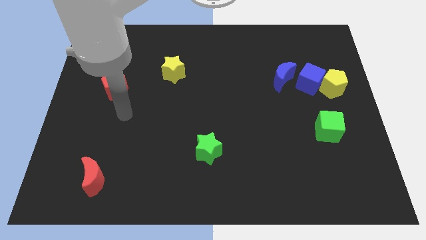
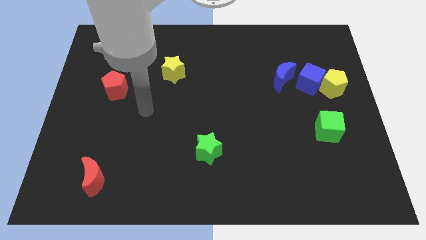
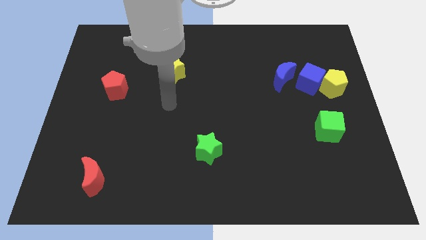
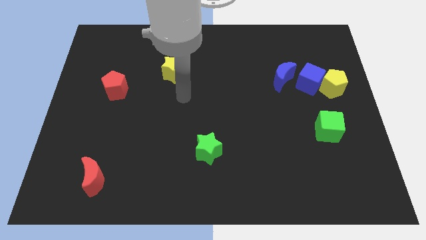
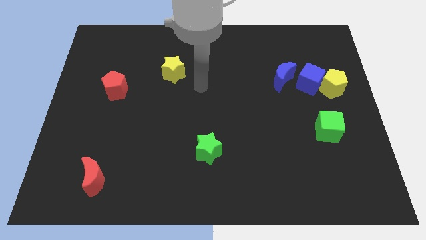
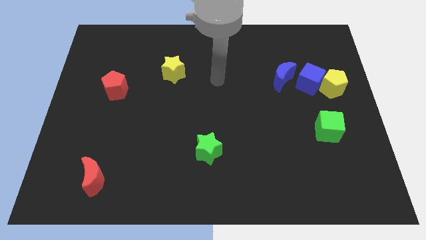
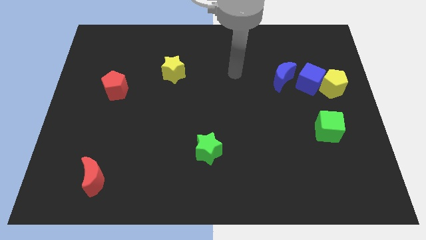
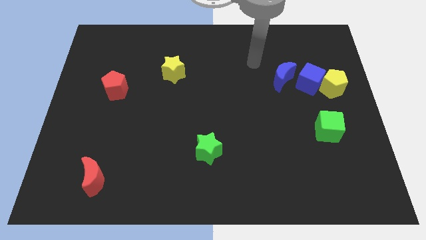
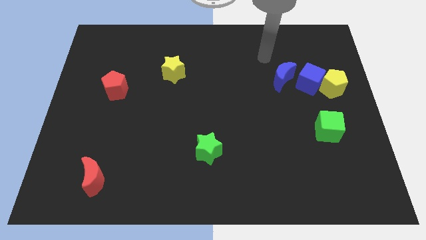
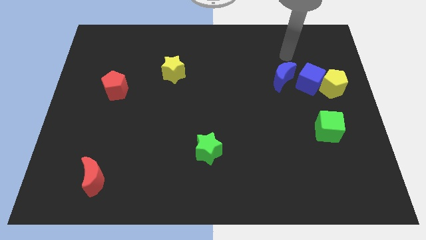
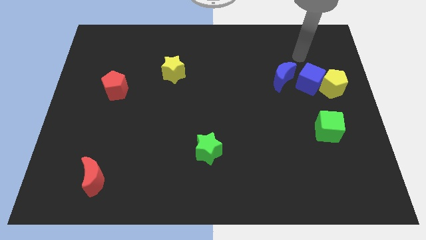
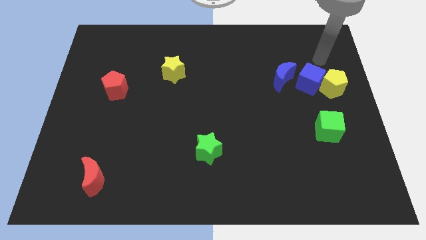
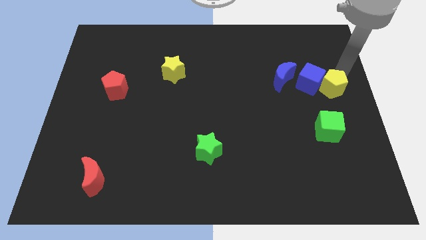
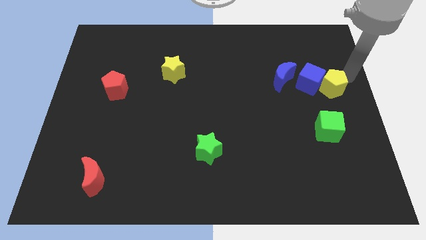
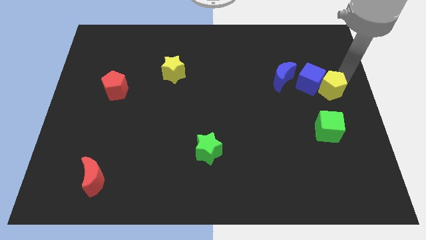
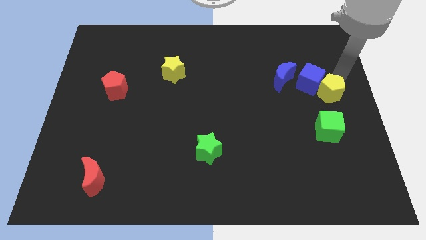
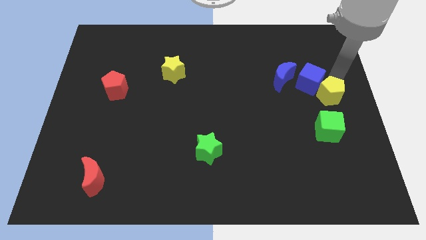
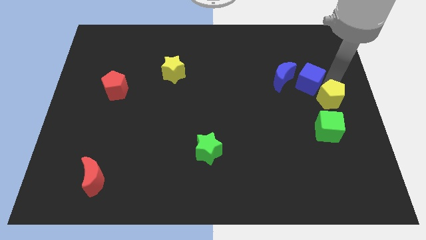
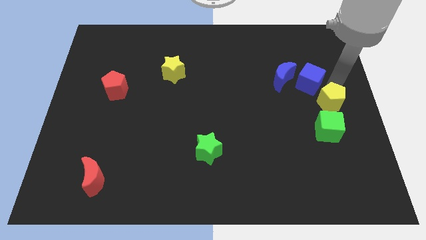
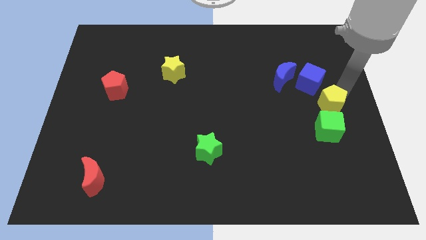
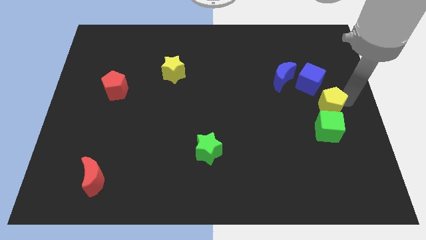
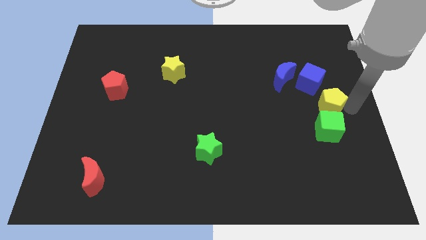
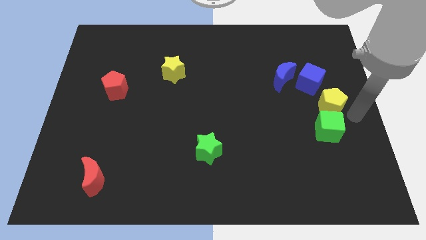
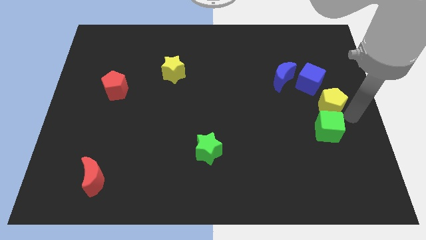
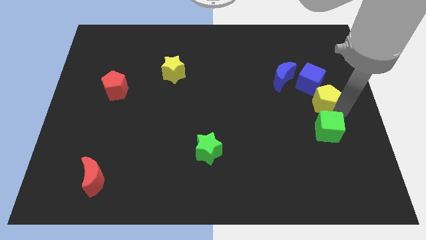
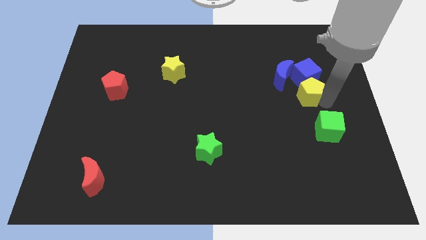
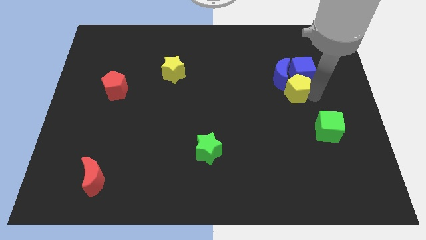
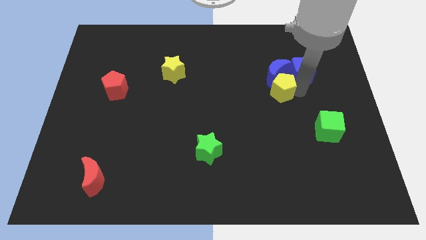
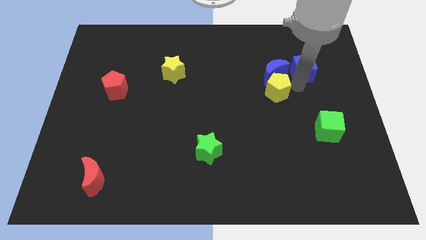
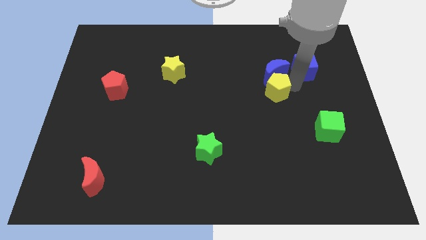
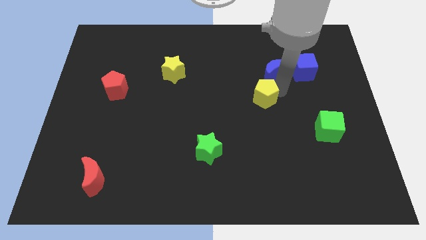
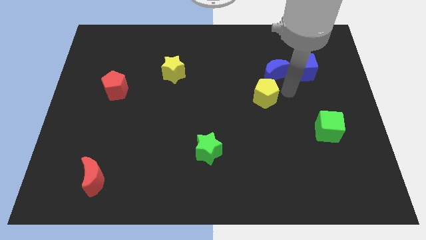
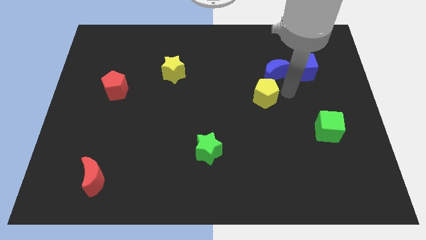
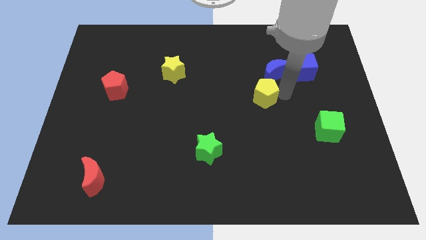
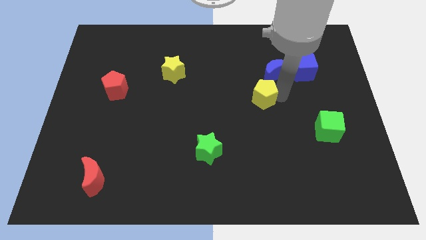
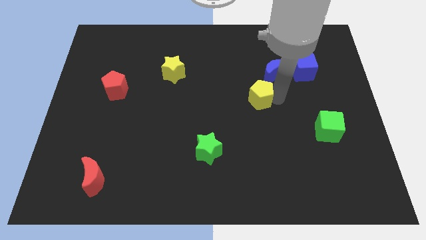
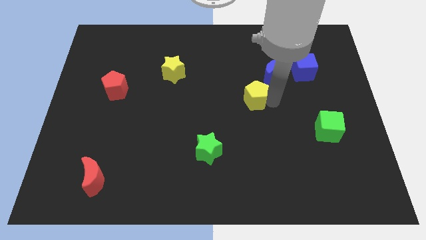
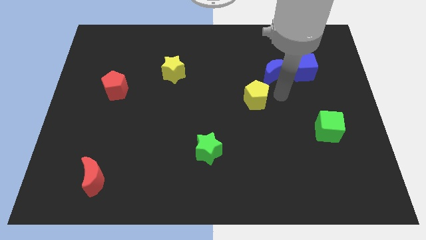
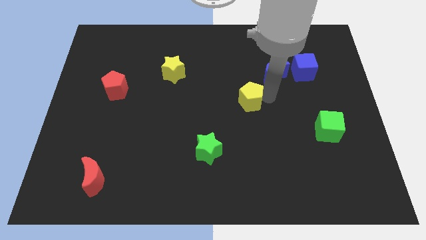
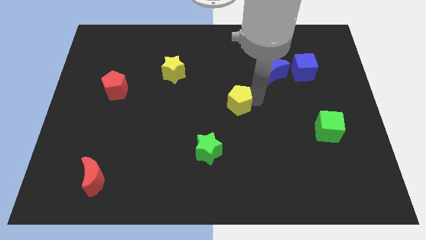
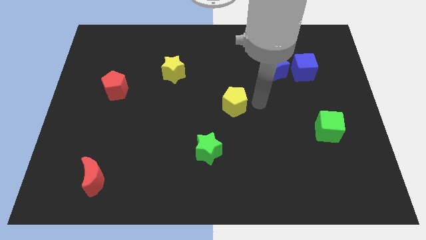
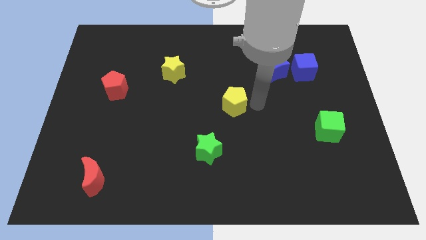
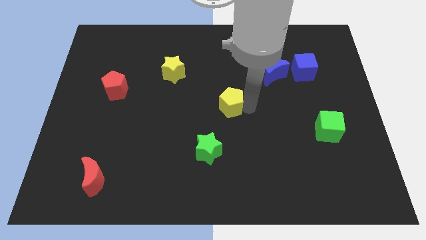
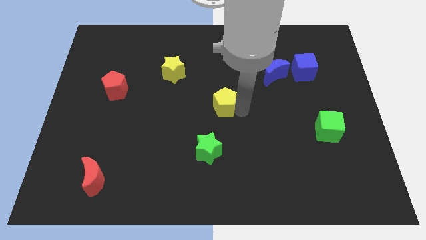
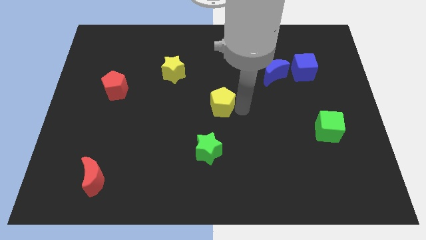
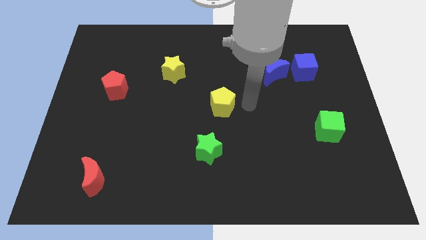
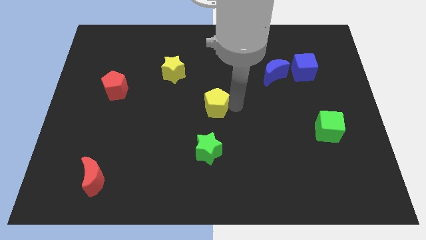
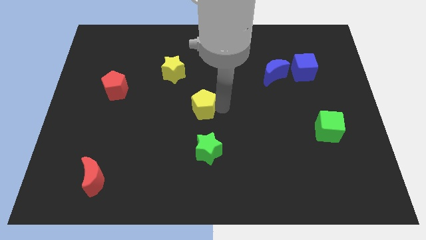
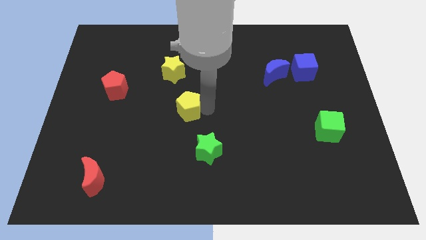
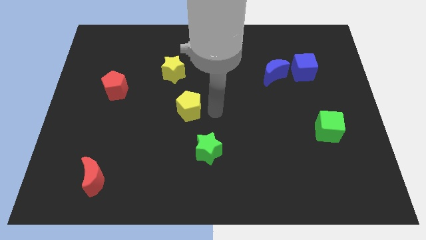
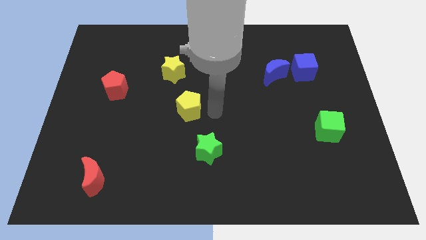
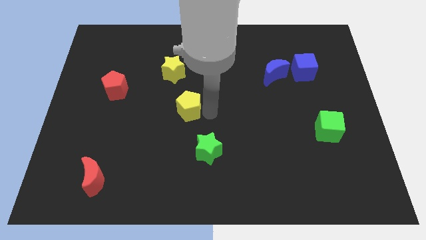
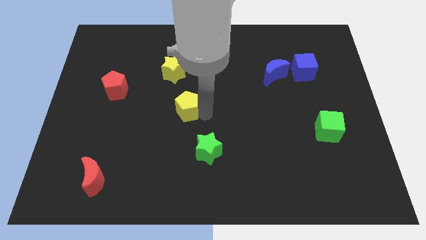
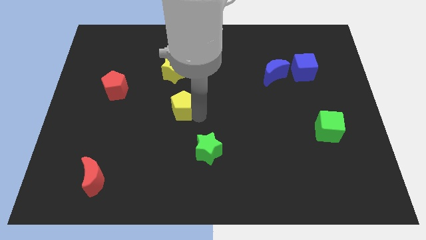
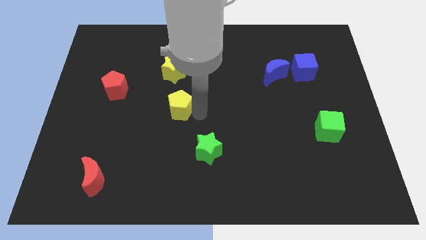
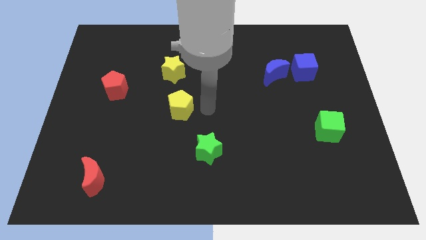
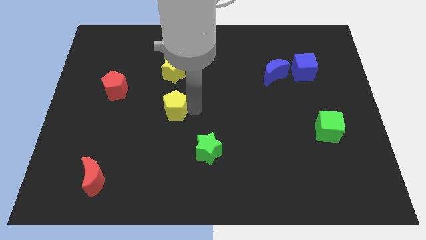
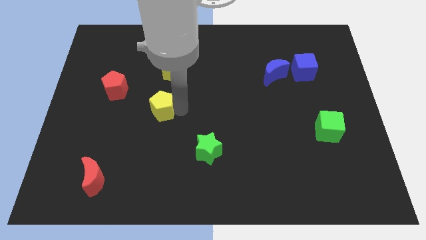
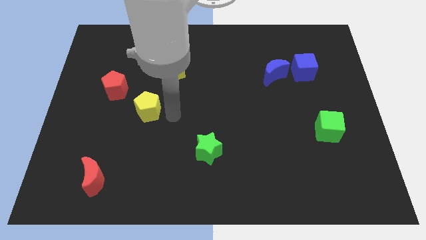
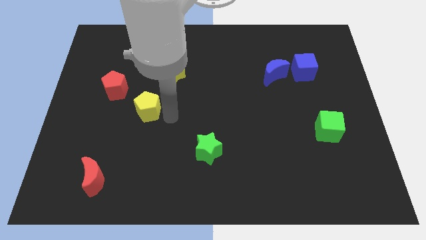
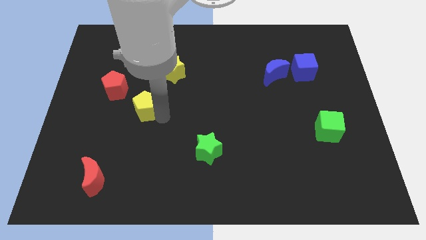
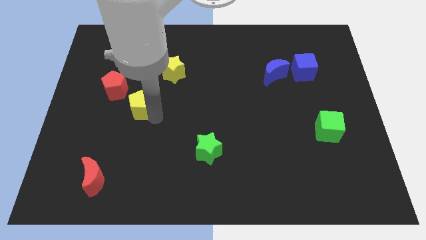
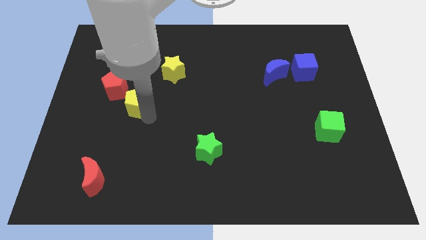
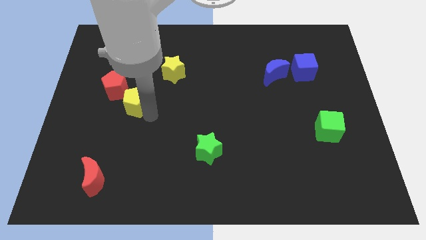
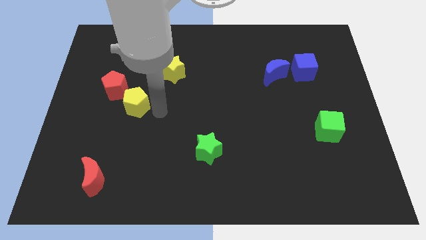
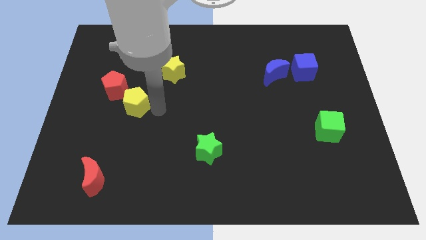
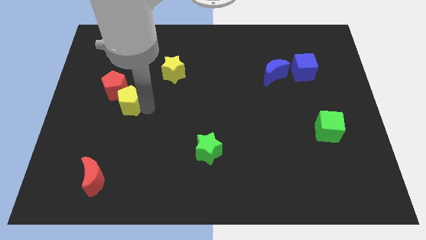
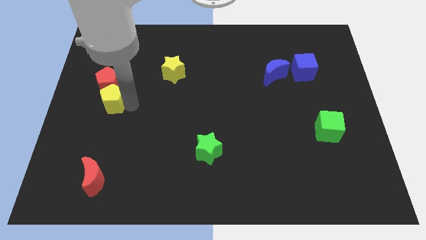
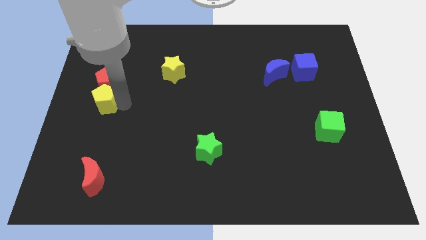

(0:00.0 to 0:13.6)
push the yellow pentagon to the left side
